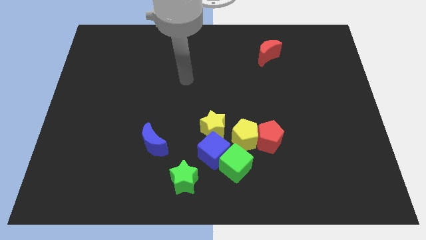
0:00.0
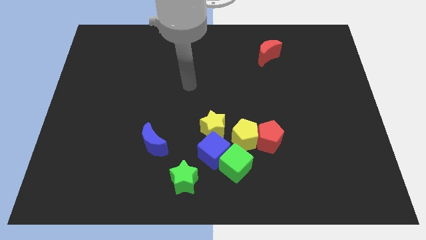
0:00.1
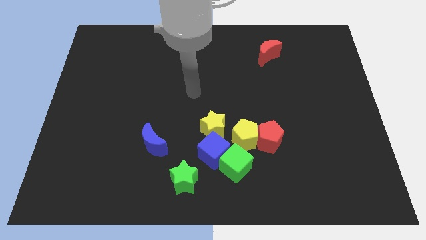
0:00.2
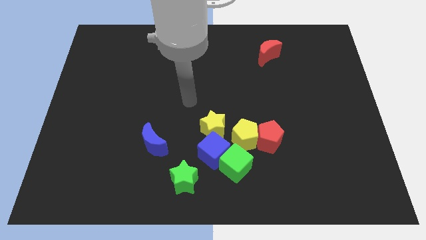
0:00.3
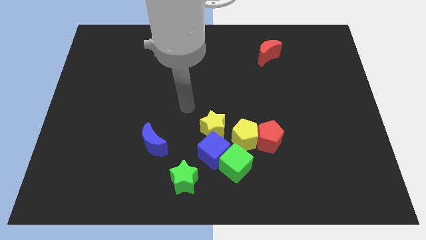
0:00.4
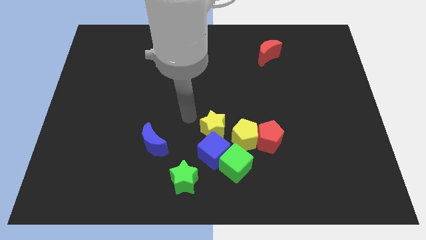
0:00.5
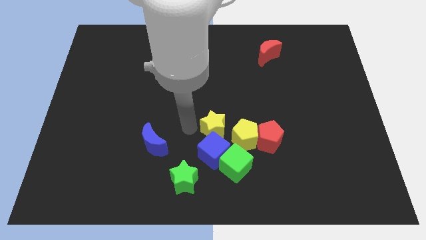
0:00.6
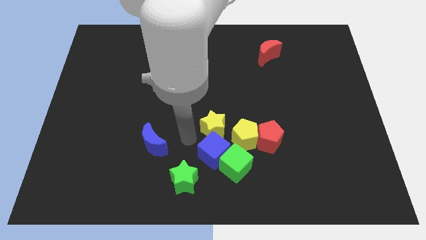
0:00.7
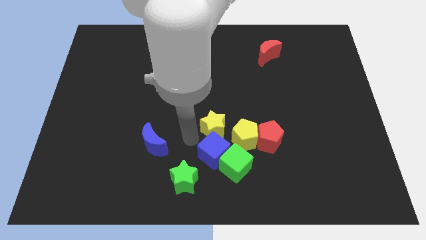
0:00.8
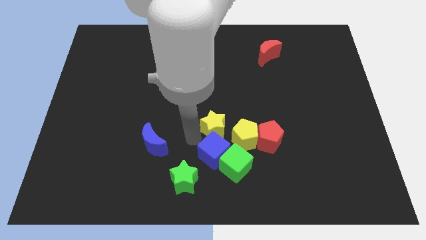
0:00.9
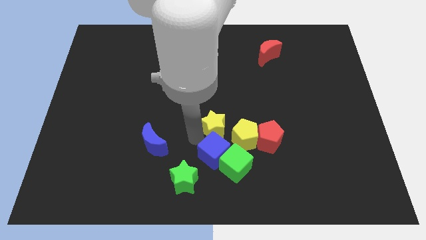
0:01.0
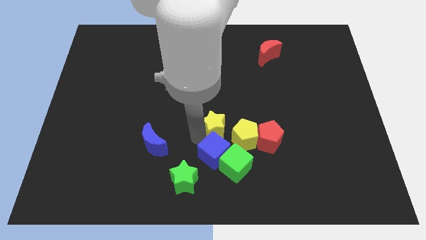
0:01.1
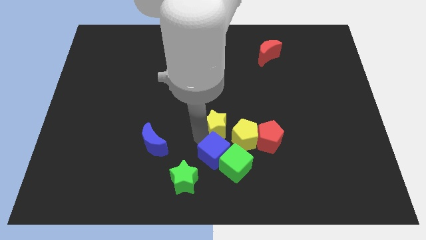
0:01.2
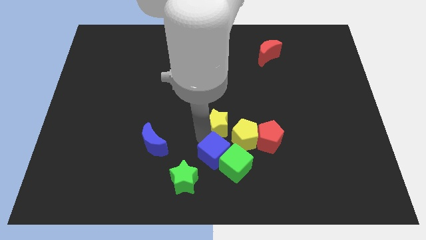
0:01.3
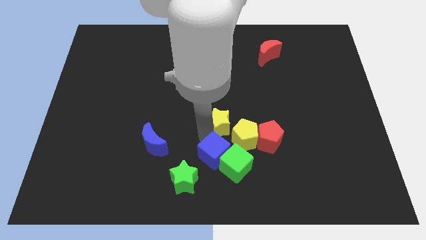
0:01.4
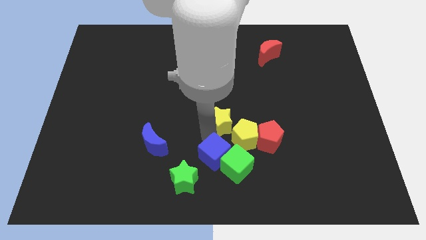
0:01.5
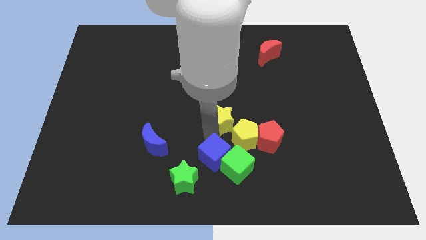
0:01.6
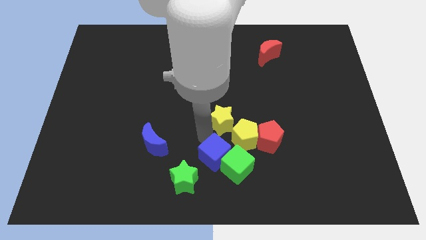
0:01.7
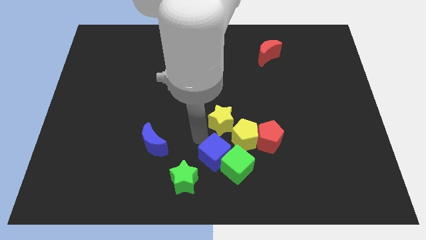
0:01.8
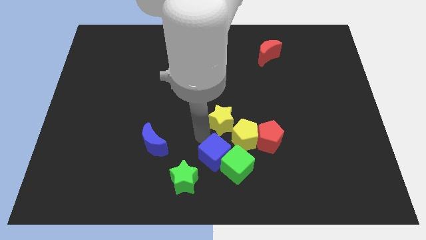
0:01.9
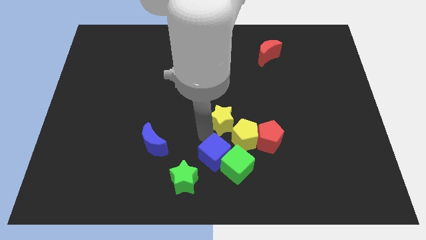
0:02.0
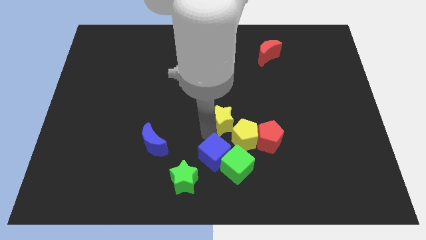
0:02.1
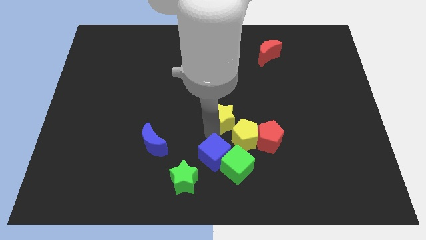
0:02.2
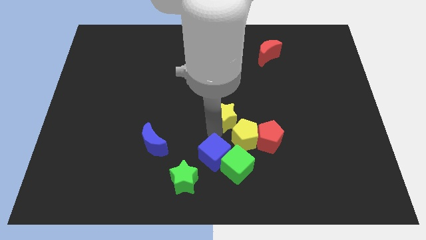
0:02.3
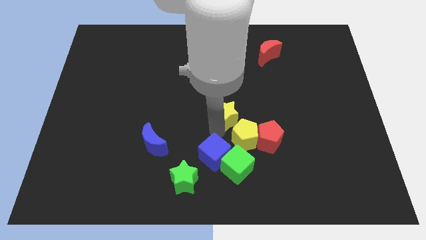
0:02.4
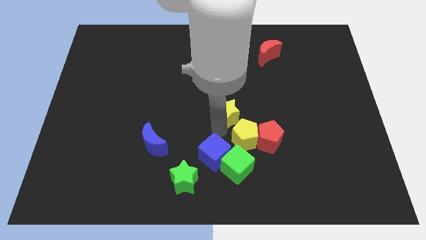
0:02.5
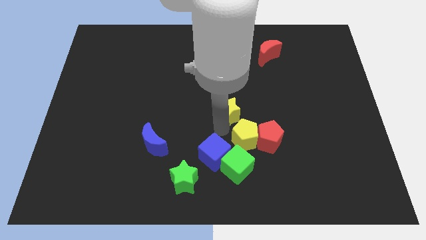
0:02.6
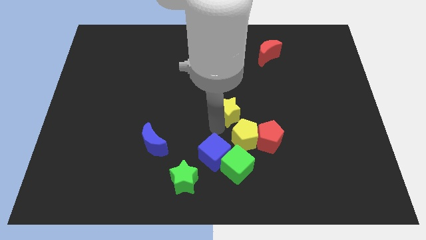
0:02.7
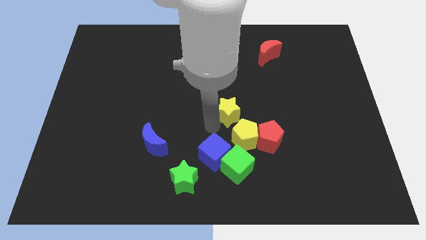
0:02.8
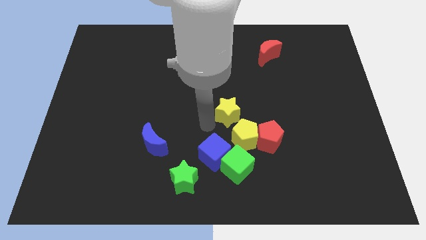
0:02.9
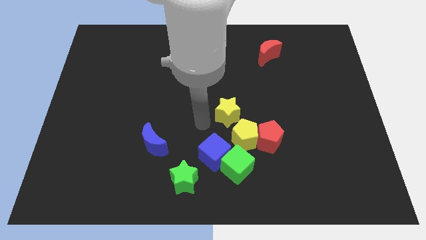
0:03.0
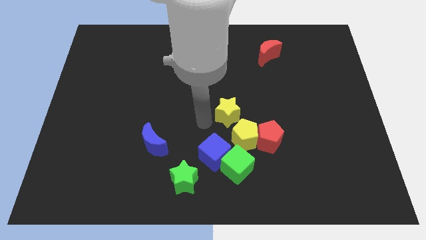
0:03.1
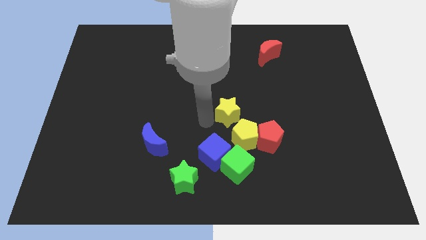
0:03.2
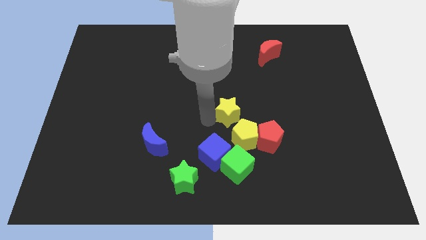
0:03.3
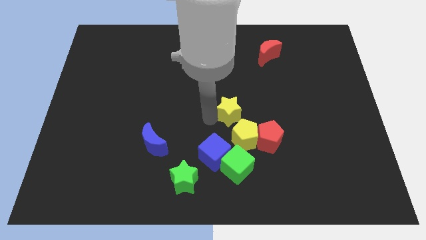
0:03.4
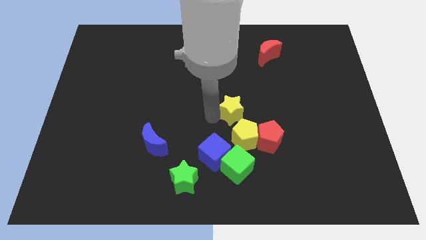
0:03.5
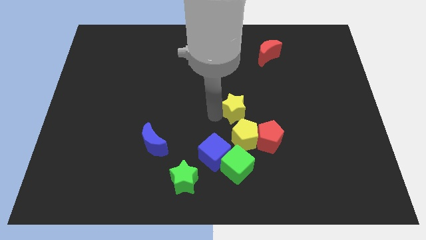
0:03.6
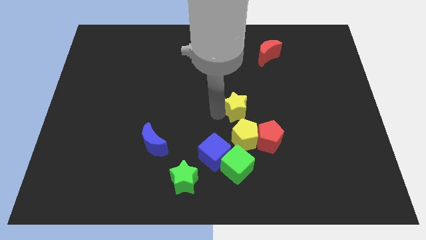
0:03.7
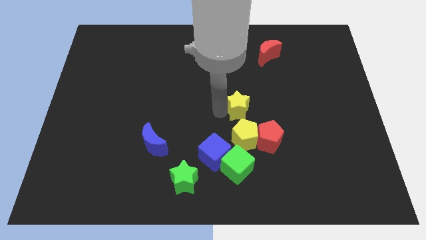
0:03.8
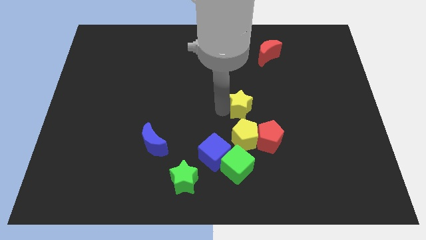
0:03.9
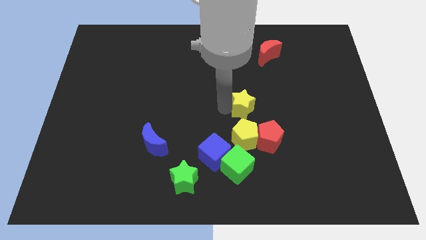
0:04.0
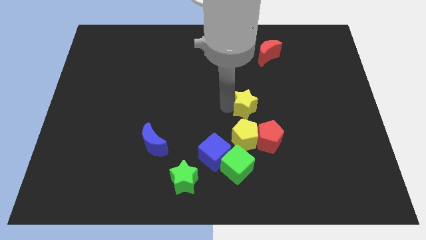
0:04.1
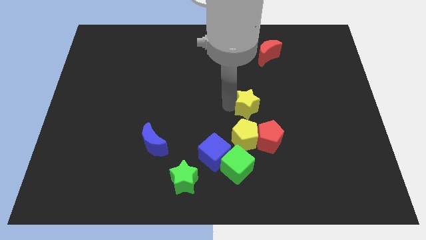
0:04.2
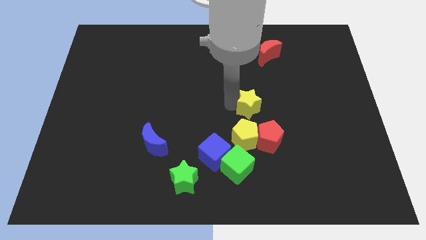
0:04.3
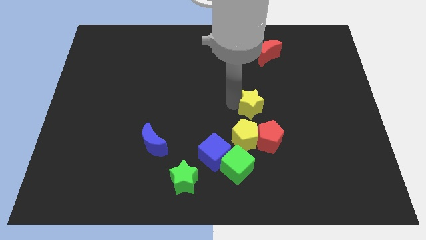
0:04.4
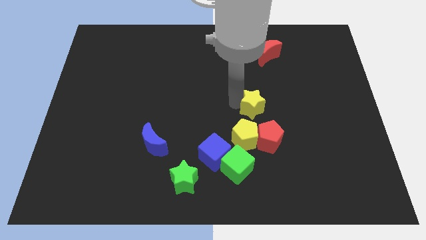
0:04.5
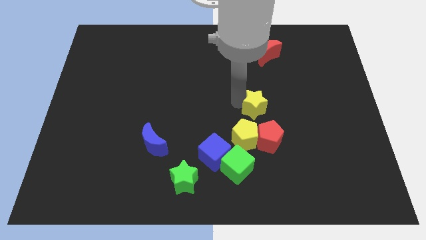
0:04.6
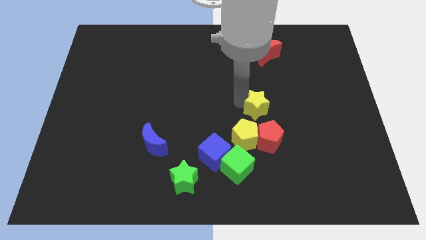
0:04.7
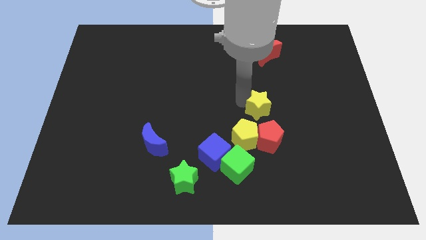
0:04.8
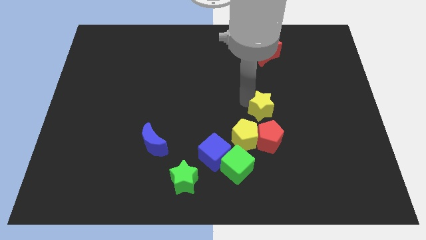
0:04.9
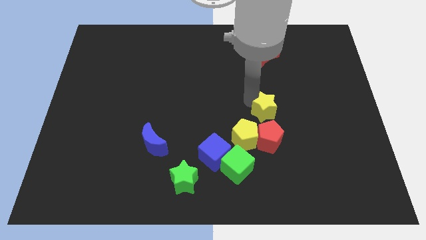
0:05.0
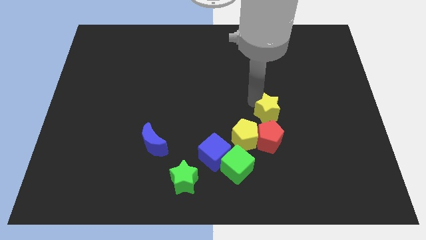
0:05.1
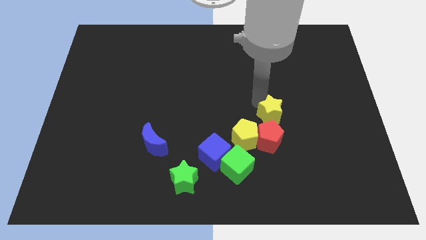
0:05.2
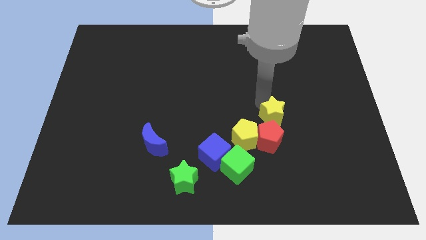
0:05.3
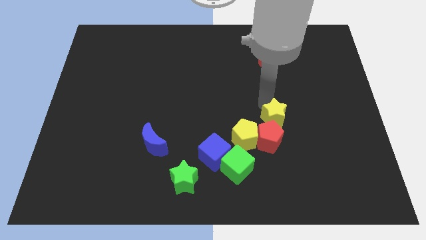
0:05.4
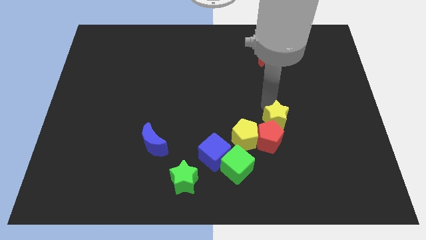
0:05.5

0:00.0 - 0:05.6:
push the yellow star next to the red pentagon
